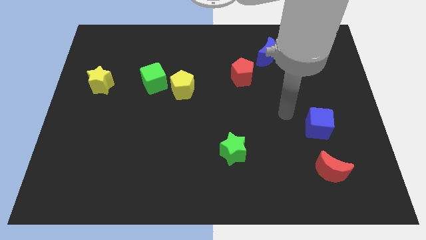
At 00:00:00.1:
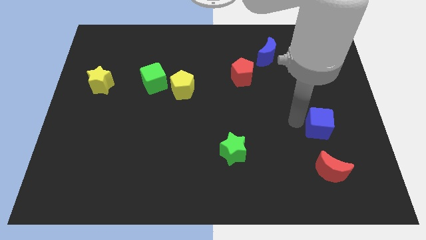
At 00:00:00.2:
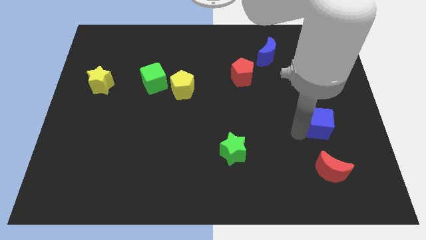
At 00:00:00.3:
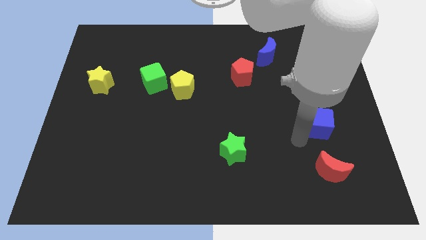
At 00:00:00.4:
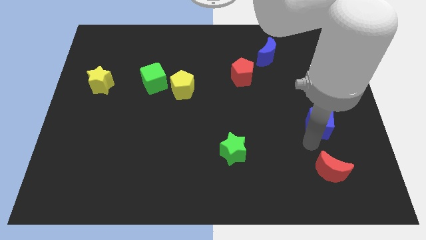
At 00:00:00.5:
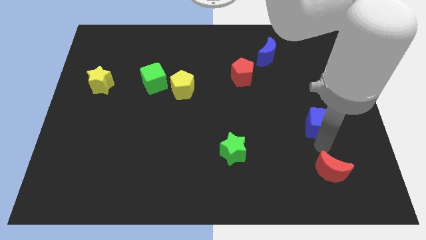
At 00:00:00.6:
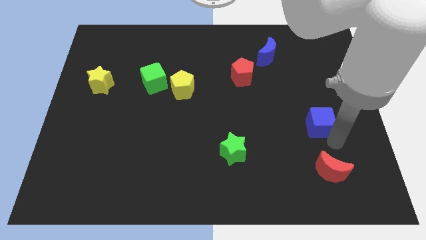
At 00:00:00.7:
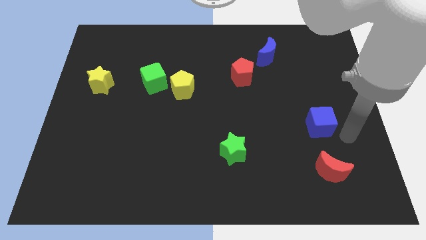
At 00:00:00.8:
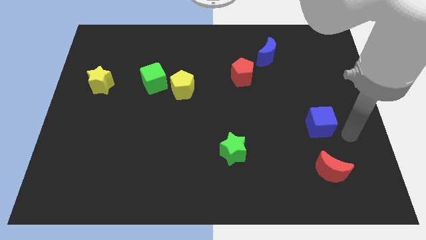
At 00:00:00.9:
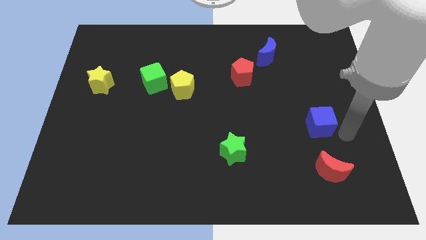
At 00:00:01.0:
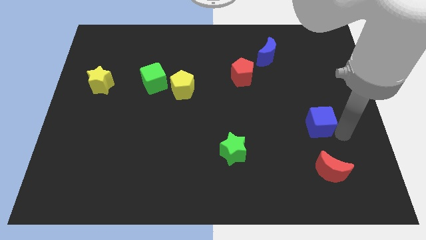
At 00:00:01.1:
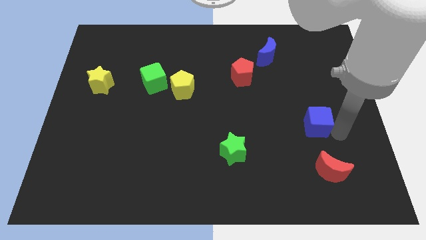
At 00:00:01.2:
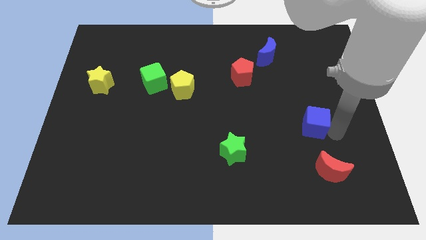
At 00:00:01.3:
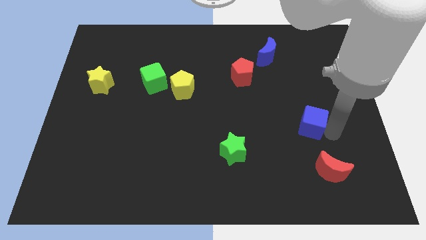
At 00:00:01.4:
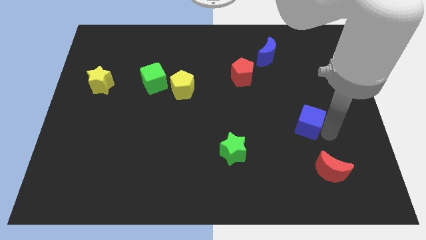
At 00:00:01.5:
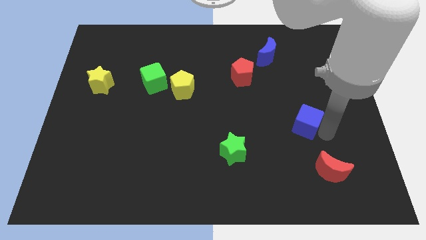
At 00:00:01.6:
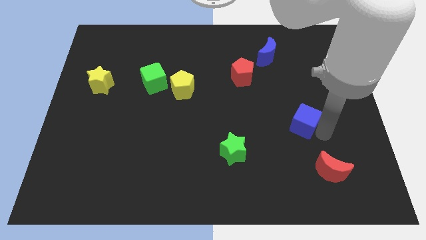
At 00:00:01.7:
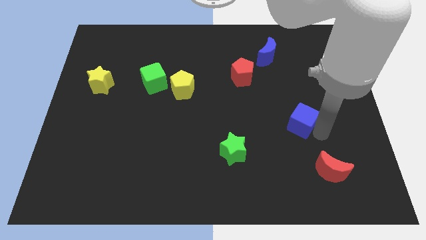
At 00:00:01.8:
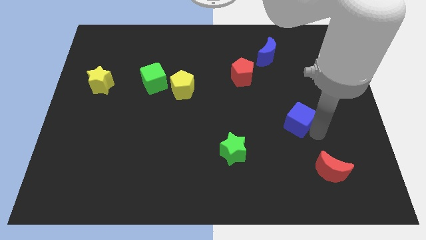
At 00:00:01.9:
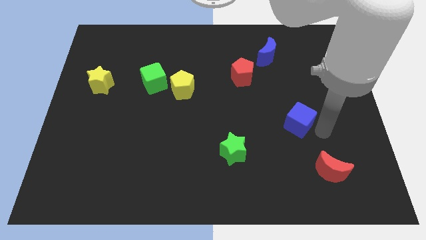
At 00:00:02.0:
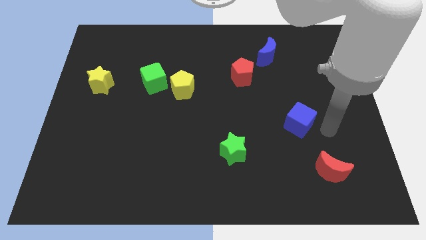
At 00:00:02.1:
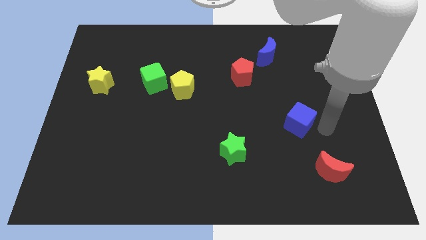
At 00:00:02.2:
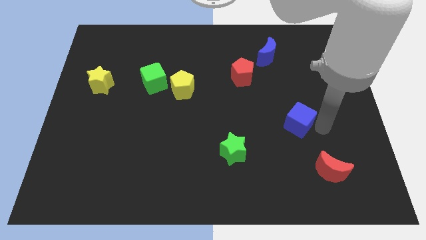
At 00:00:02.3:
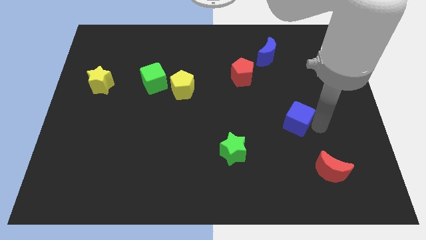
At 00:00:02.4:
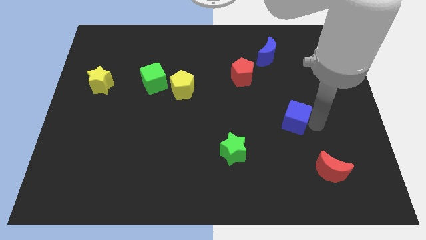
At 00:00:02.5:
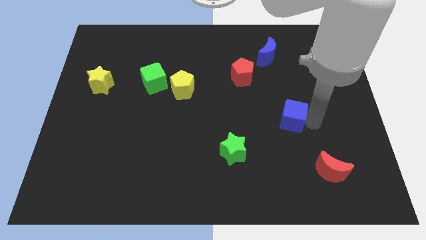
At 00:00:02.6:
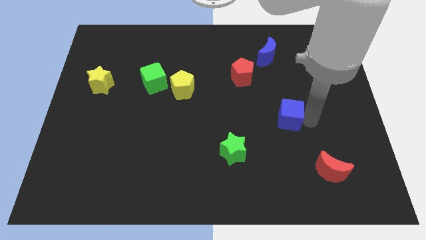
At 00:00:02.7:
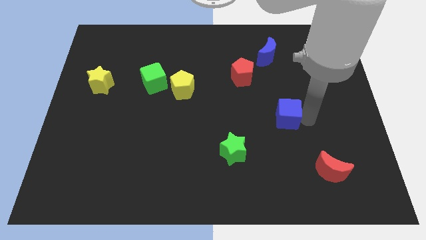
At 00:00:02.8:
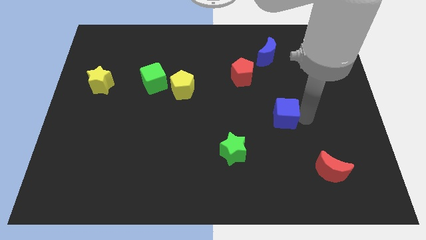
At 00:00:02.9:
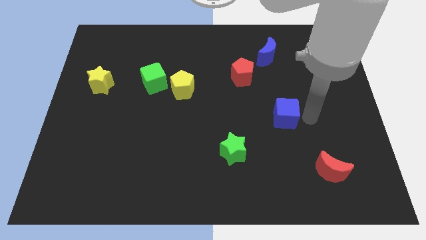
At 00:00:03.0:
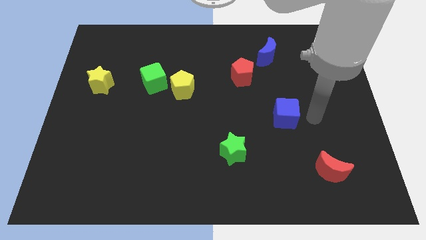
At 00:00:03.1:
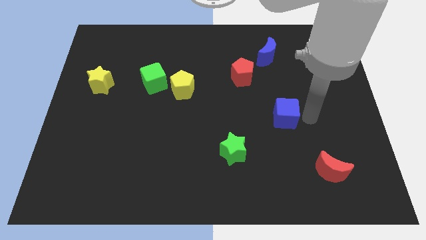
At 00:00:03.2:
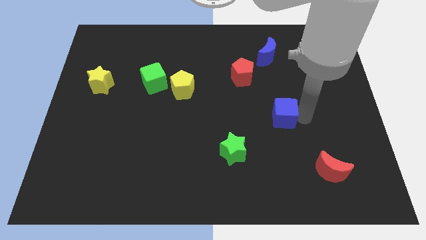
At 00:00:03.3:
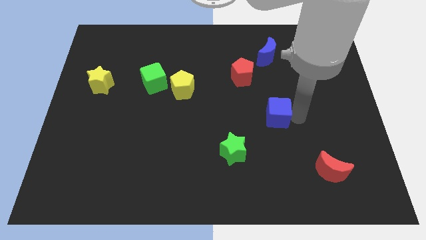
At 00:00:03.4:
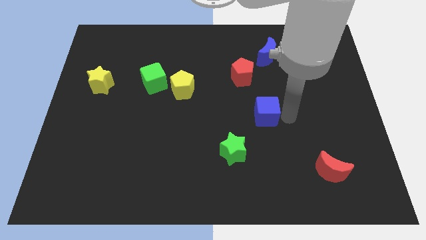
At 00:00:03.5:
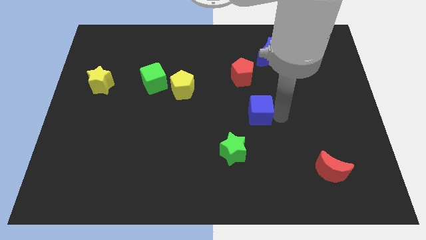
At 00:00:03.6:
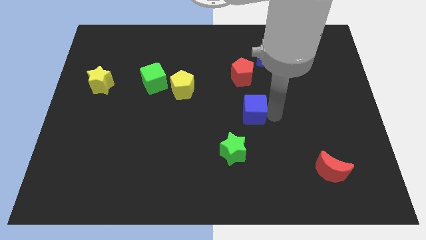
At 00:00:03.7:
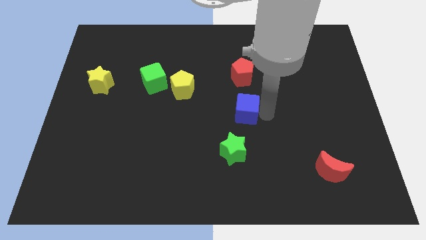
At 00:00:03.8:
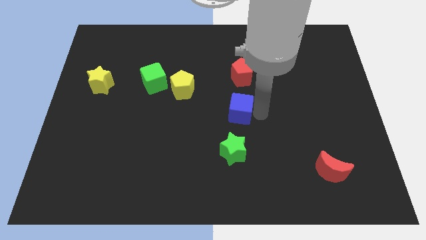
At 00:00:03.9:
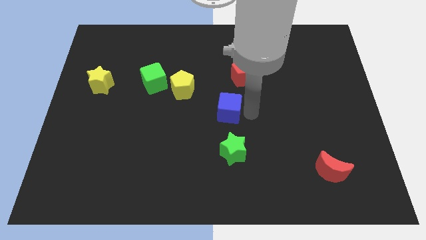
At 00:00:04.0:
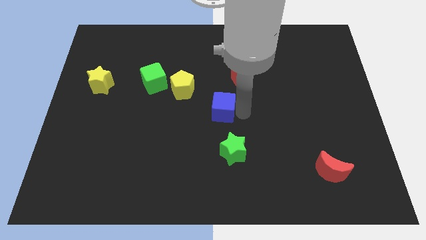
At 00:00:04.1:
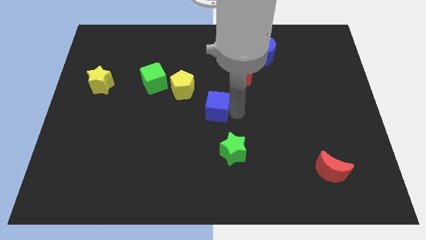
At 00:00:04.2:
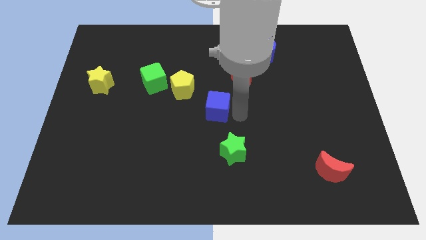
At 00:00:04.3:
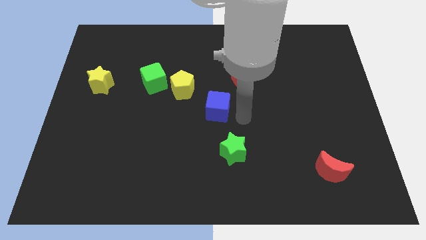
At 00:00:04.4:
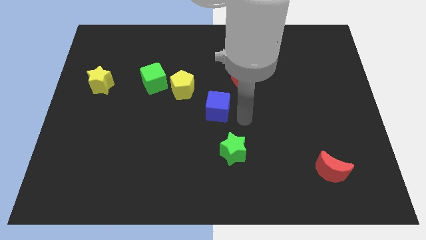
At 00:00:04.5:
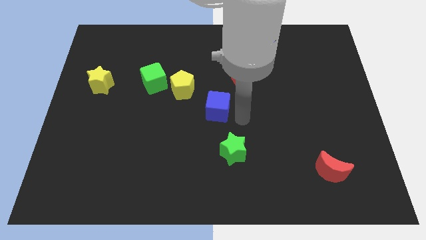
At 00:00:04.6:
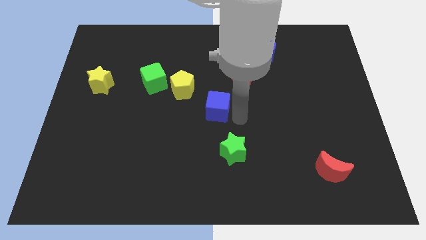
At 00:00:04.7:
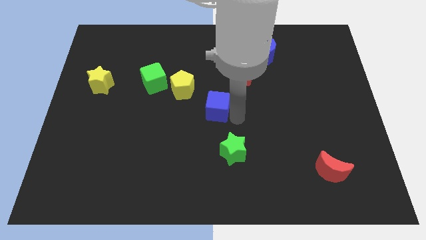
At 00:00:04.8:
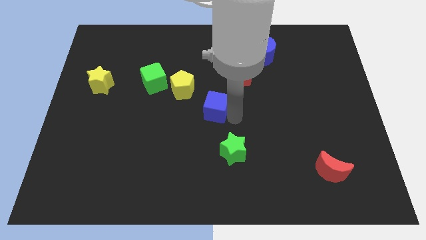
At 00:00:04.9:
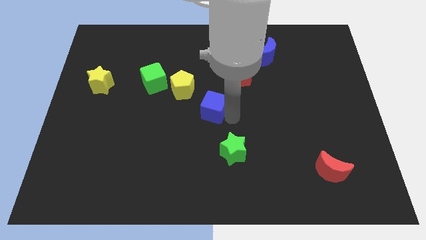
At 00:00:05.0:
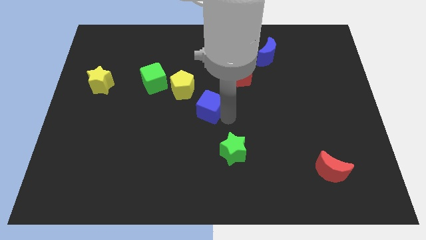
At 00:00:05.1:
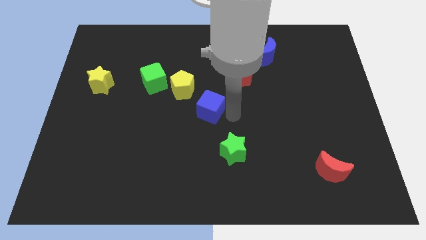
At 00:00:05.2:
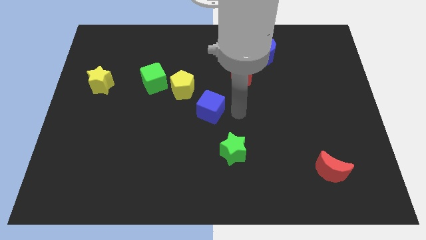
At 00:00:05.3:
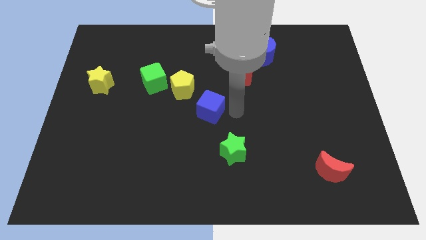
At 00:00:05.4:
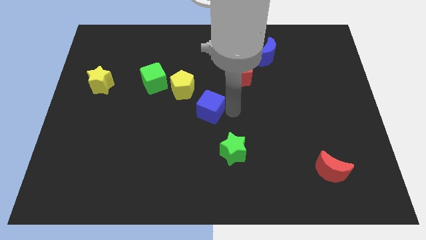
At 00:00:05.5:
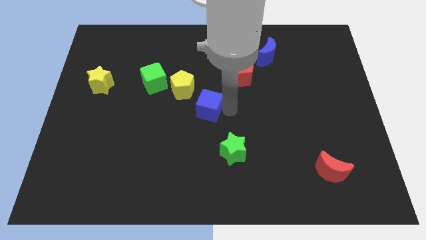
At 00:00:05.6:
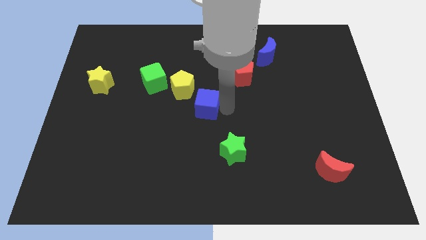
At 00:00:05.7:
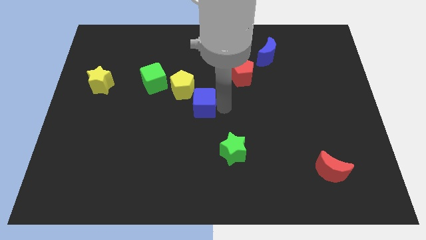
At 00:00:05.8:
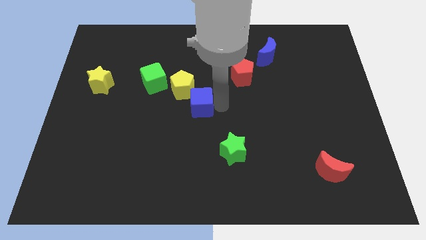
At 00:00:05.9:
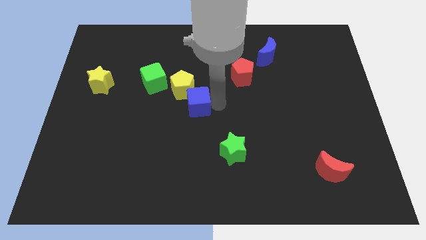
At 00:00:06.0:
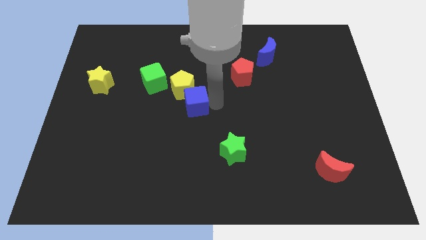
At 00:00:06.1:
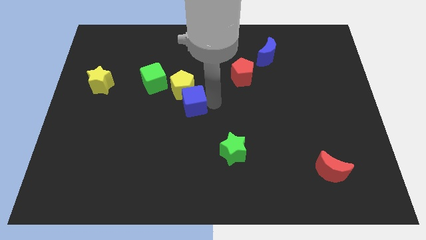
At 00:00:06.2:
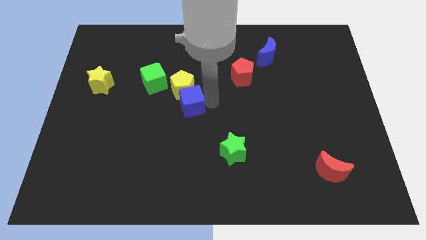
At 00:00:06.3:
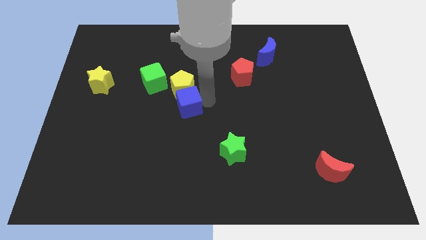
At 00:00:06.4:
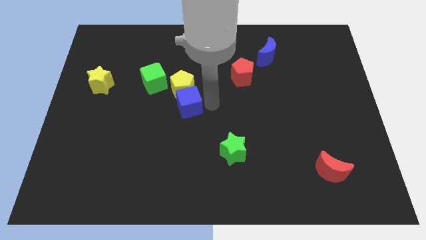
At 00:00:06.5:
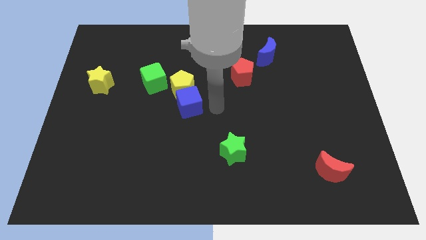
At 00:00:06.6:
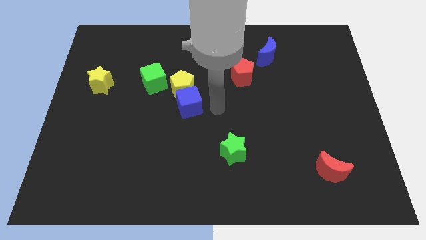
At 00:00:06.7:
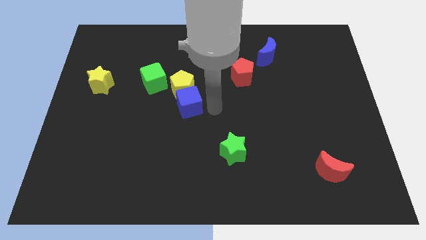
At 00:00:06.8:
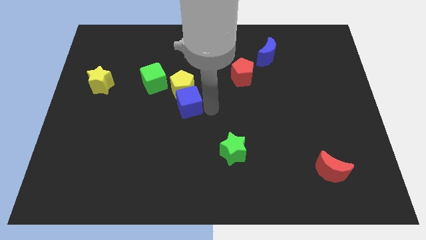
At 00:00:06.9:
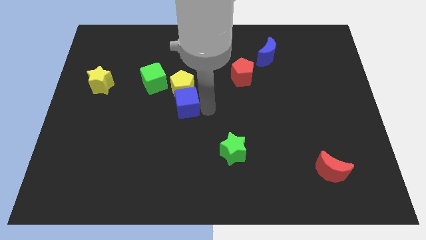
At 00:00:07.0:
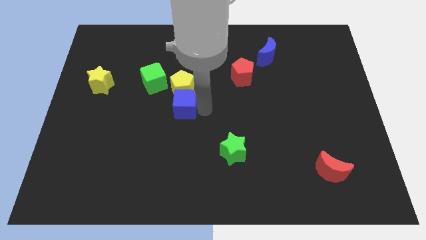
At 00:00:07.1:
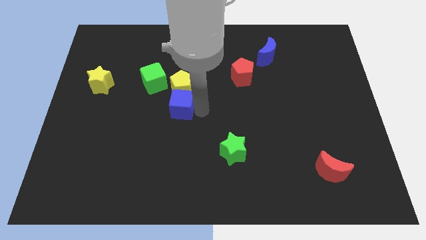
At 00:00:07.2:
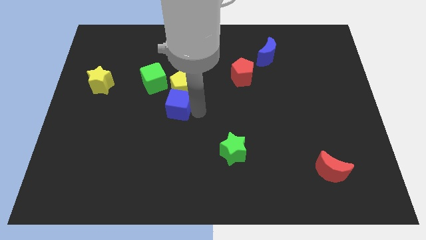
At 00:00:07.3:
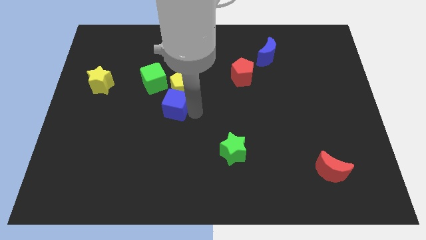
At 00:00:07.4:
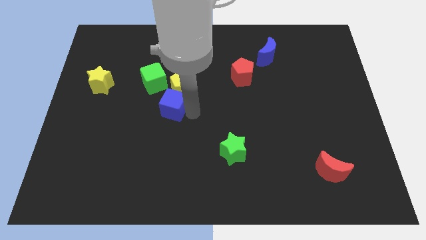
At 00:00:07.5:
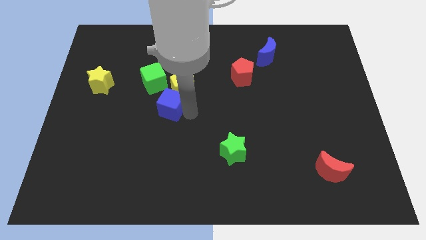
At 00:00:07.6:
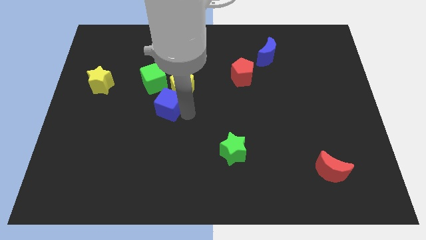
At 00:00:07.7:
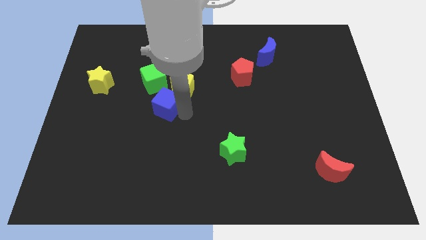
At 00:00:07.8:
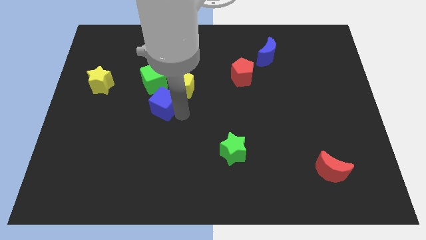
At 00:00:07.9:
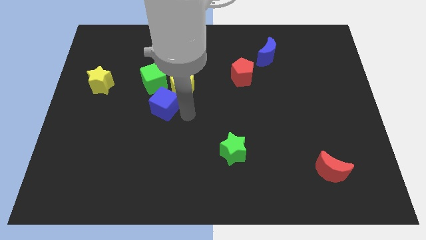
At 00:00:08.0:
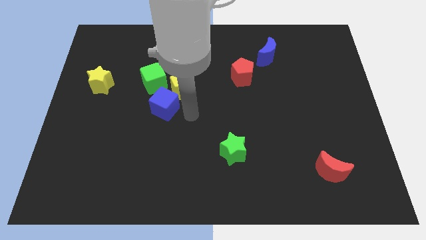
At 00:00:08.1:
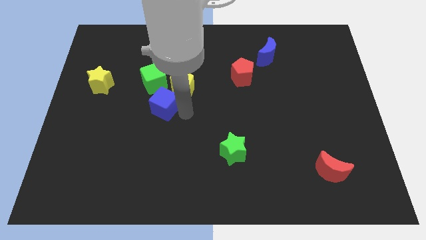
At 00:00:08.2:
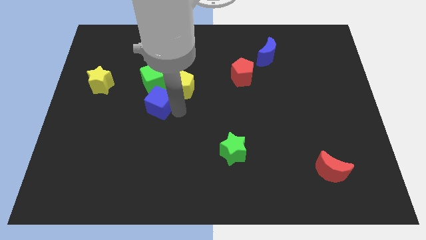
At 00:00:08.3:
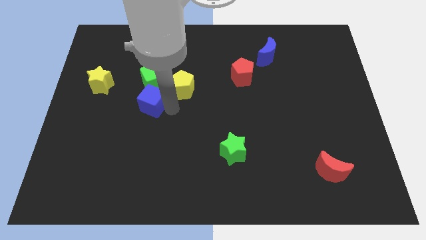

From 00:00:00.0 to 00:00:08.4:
put the blue cube to the left of the yellow pentagon
